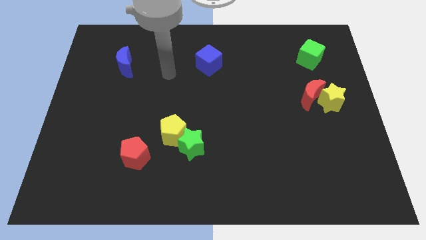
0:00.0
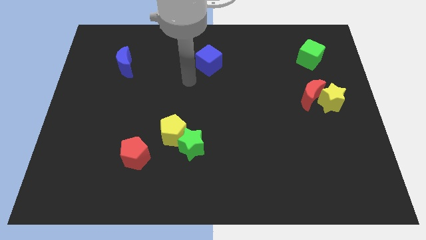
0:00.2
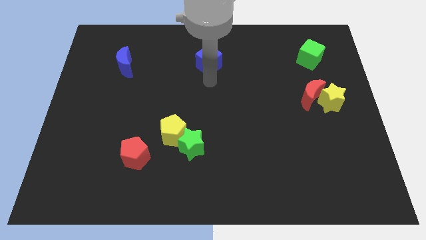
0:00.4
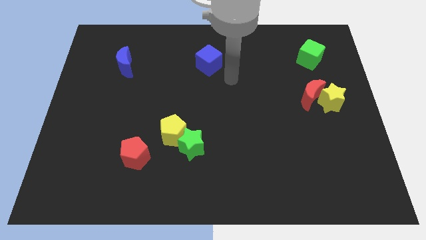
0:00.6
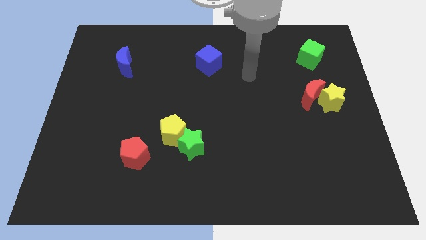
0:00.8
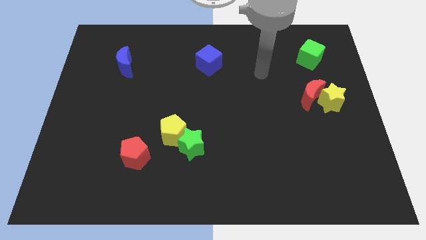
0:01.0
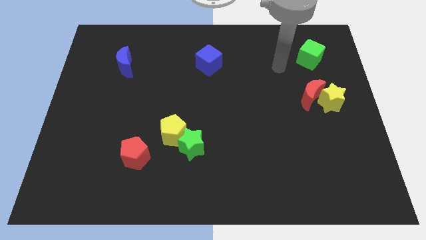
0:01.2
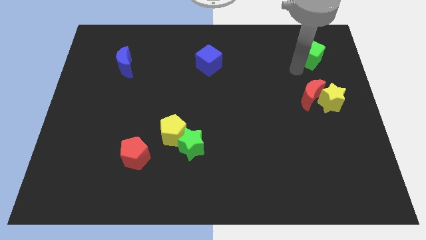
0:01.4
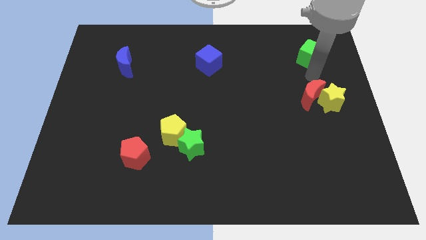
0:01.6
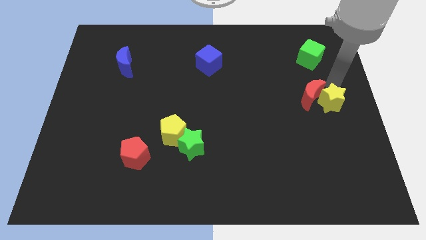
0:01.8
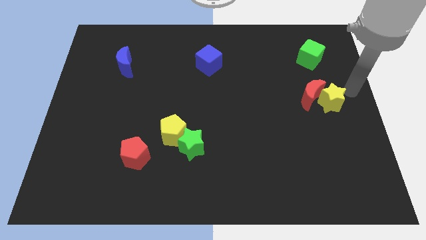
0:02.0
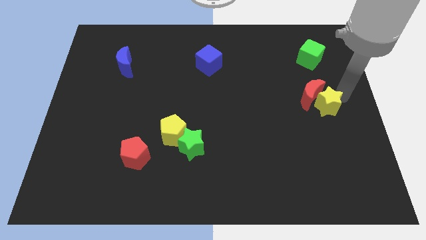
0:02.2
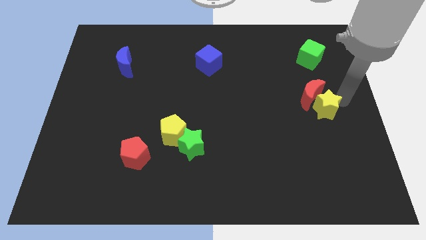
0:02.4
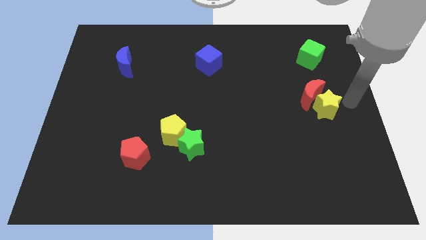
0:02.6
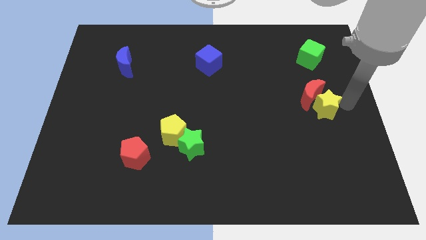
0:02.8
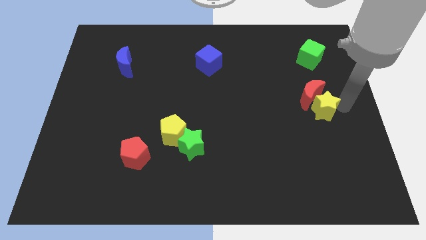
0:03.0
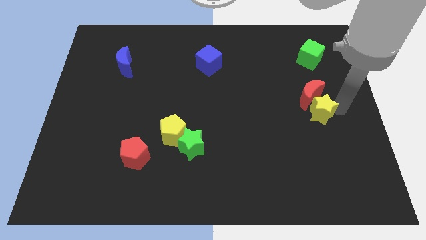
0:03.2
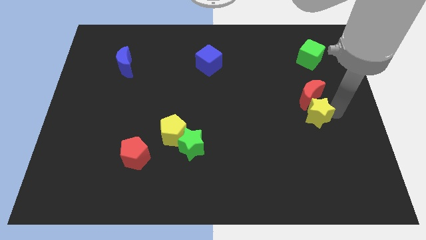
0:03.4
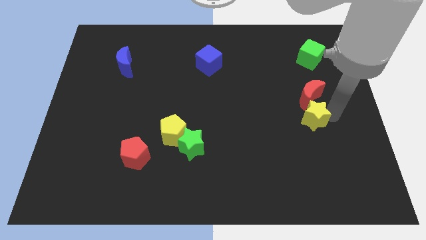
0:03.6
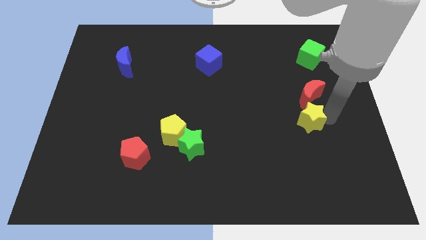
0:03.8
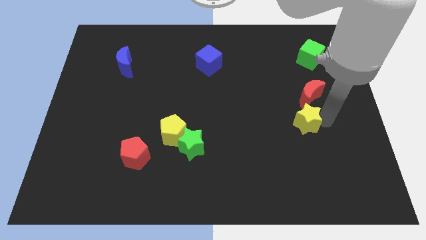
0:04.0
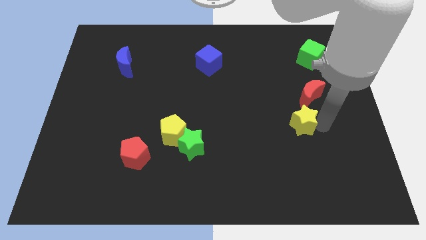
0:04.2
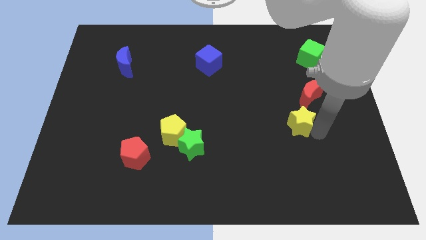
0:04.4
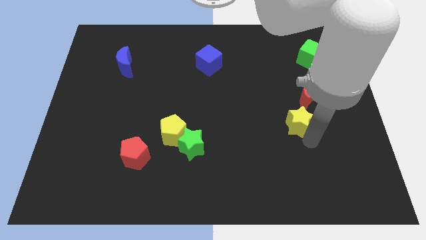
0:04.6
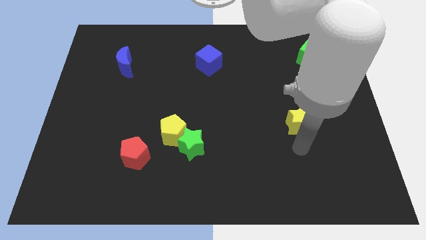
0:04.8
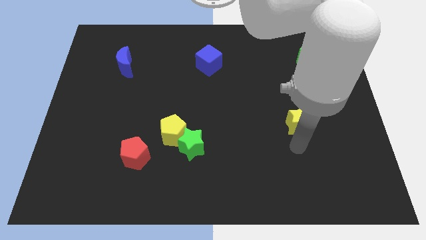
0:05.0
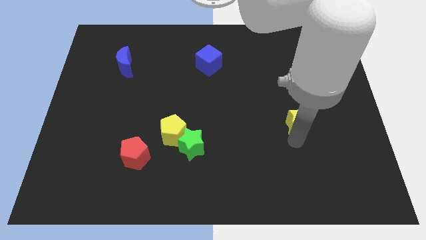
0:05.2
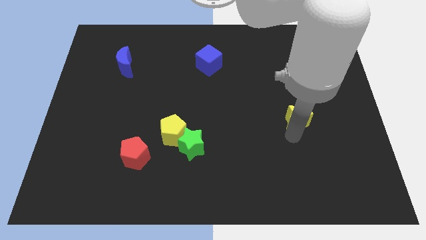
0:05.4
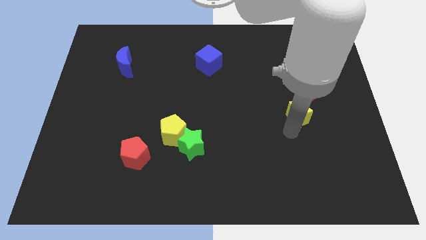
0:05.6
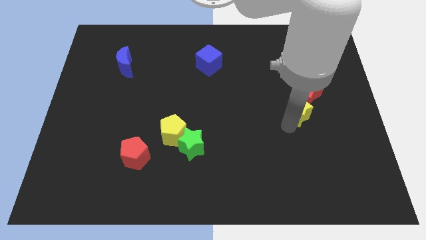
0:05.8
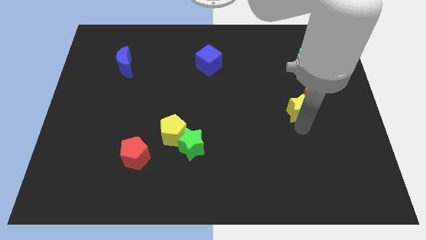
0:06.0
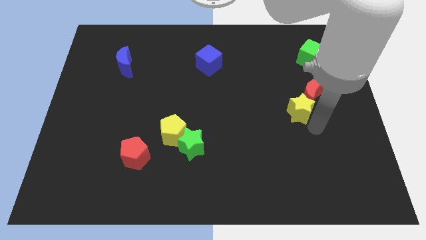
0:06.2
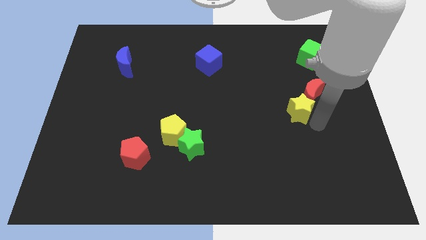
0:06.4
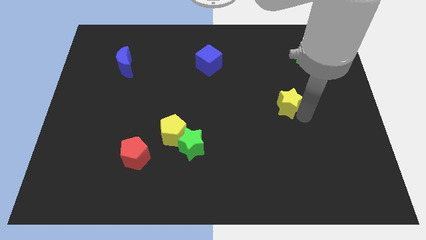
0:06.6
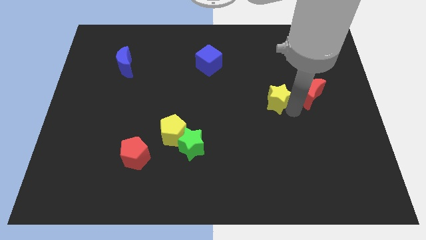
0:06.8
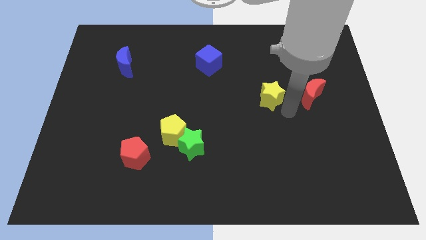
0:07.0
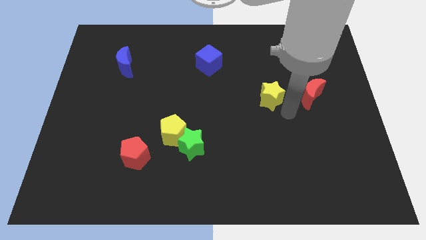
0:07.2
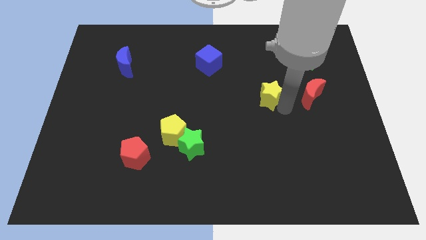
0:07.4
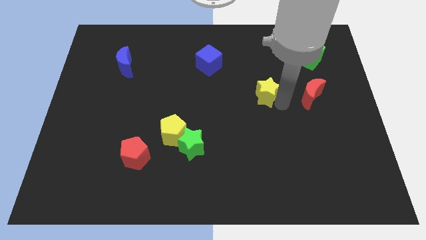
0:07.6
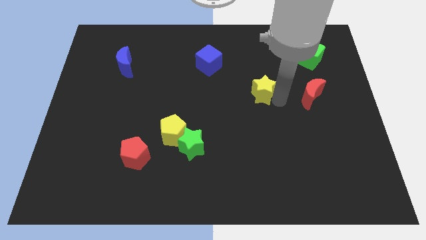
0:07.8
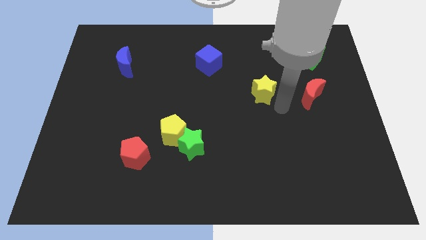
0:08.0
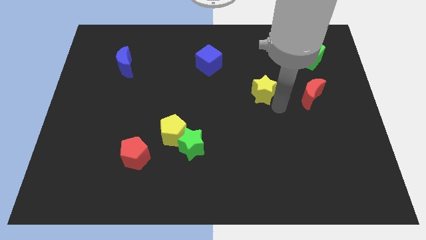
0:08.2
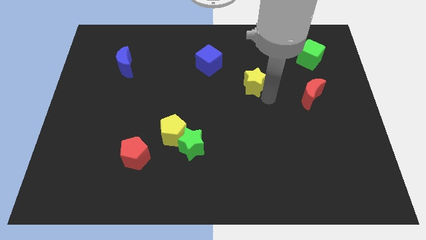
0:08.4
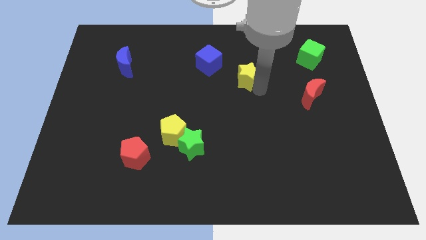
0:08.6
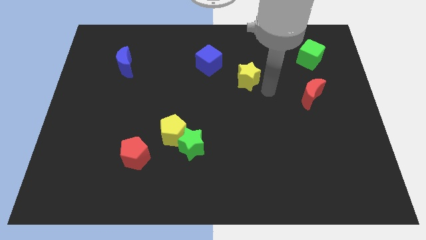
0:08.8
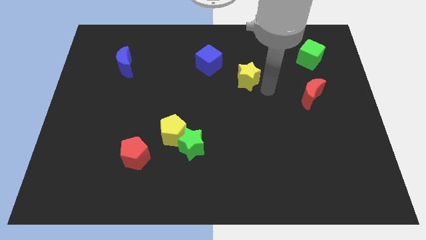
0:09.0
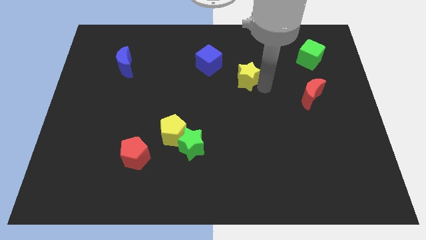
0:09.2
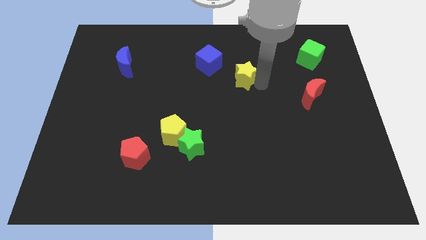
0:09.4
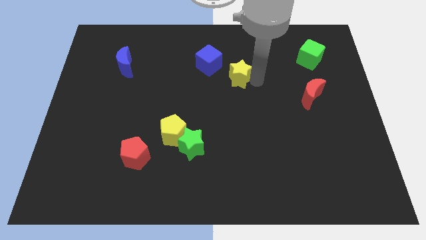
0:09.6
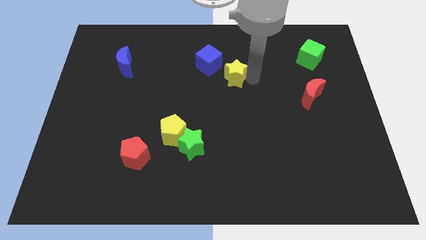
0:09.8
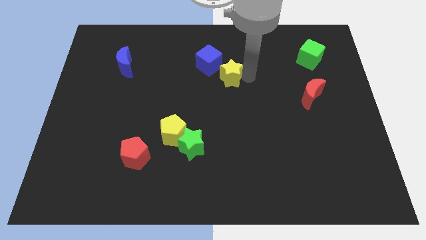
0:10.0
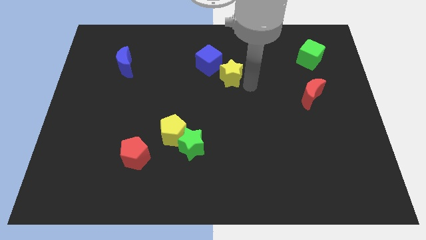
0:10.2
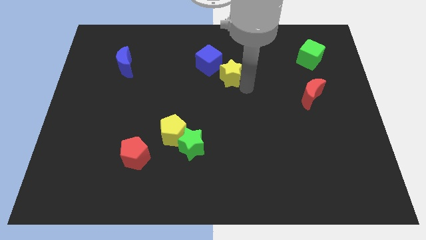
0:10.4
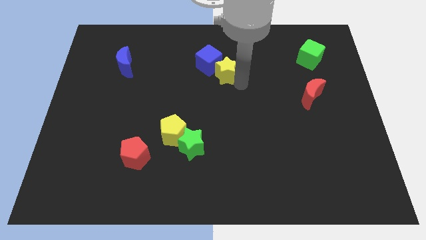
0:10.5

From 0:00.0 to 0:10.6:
move the yellow star close to the blue cube

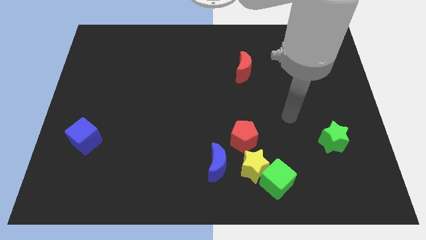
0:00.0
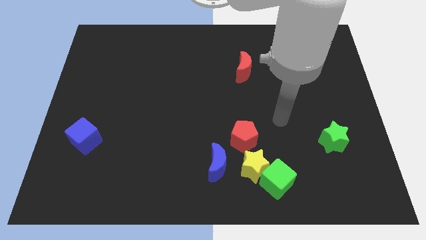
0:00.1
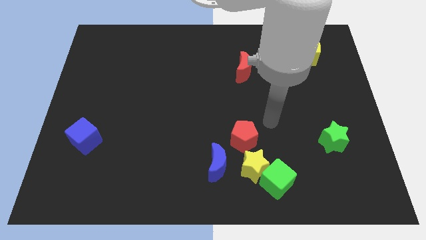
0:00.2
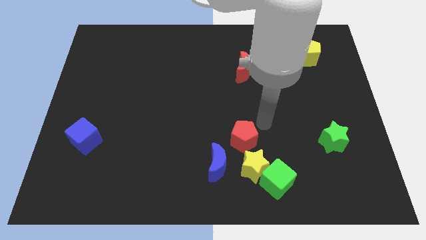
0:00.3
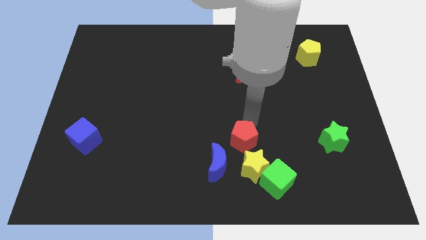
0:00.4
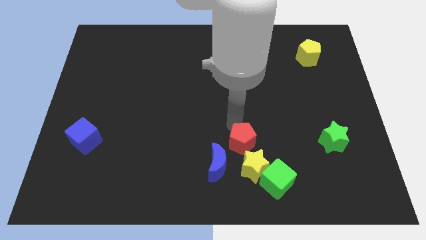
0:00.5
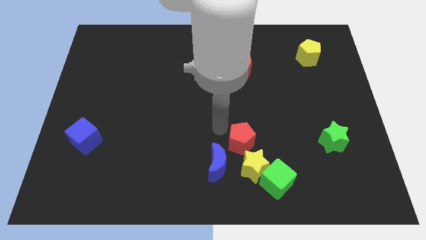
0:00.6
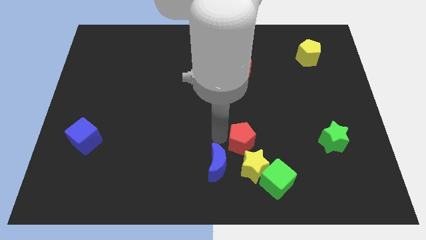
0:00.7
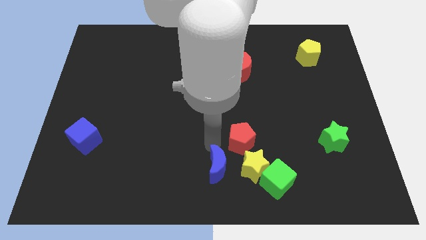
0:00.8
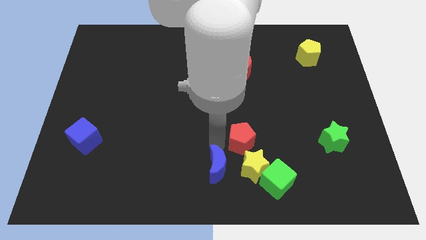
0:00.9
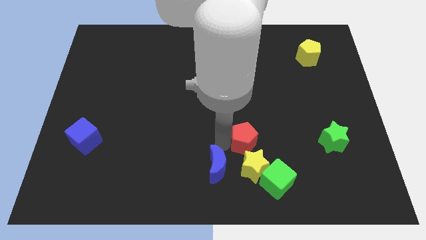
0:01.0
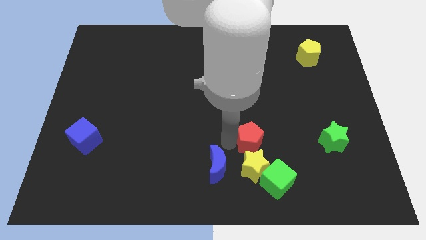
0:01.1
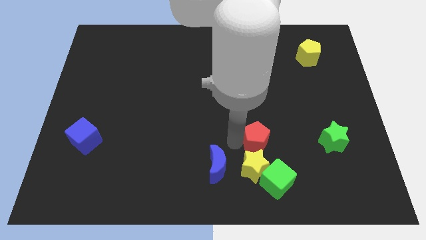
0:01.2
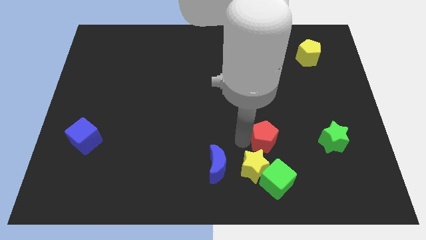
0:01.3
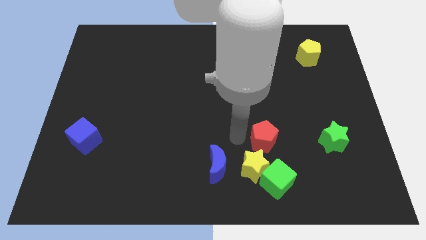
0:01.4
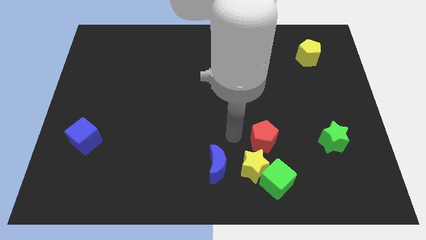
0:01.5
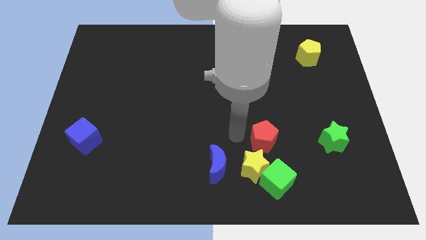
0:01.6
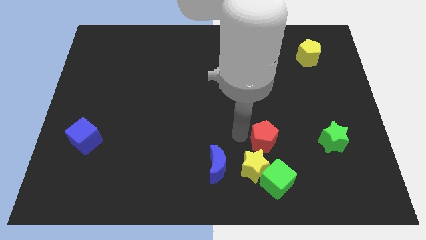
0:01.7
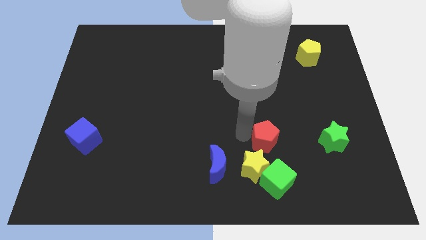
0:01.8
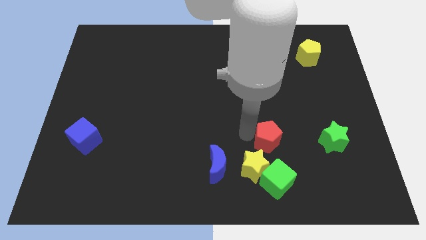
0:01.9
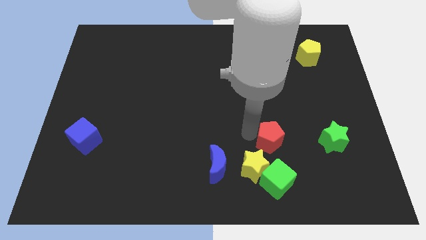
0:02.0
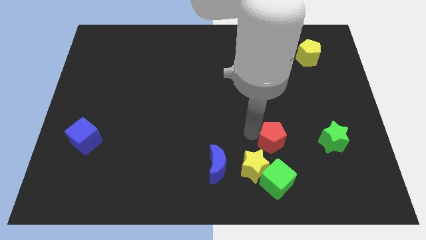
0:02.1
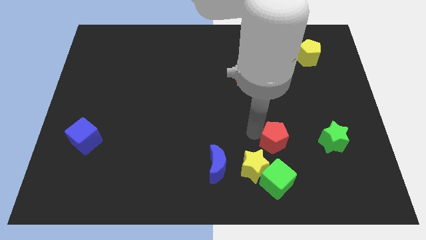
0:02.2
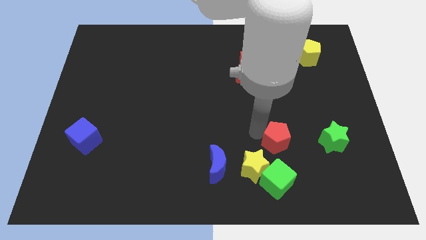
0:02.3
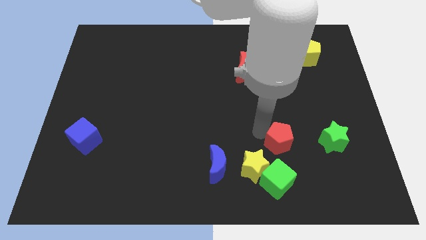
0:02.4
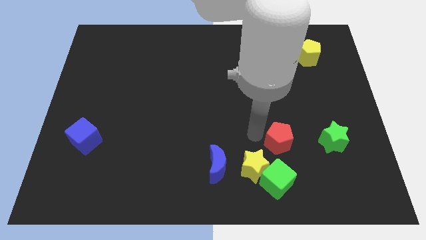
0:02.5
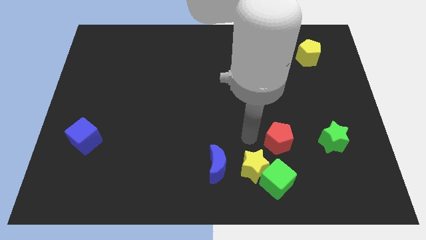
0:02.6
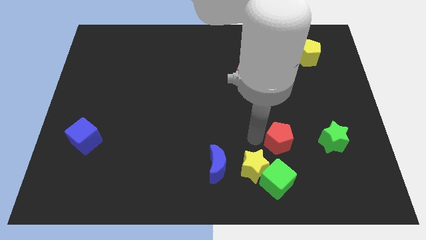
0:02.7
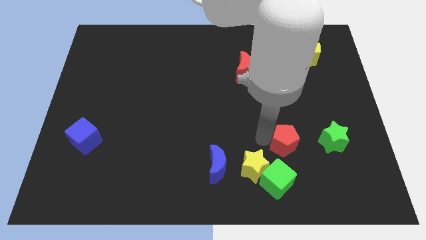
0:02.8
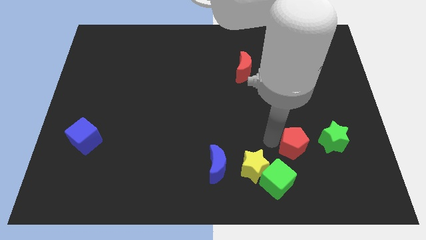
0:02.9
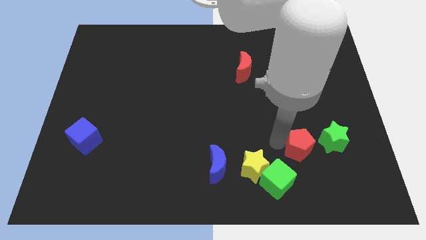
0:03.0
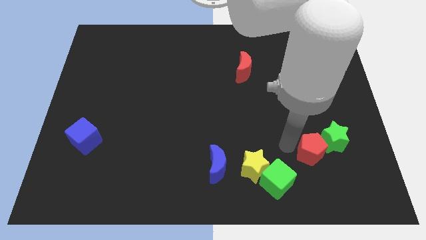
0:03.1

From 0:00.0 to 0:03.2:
move the red pentagon towards the green star
